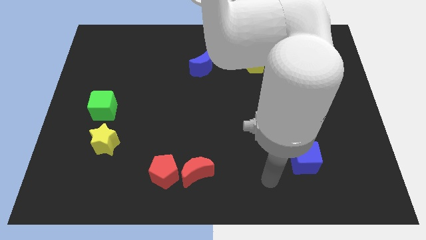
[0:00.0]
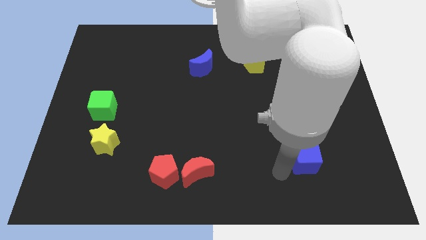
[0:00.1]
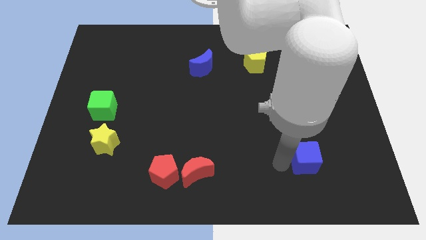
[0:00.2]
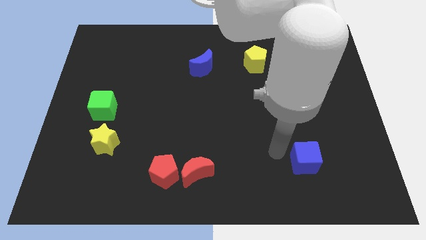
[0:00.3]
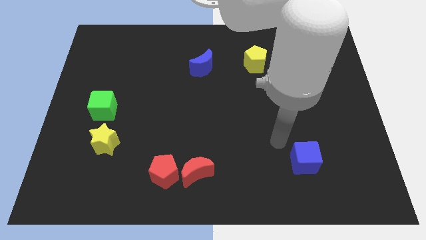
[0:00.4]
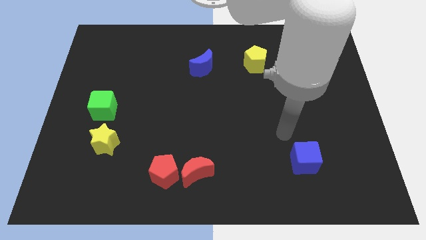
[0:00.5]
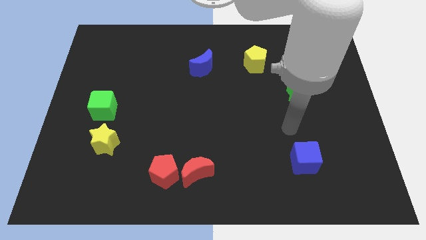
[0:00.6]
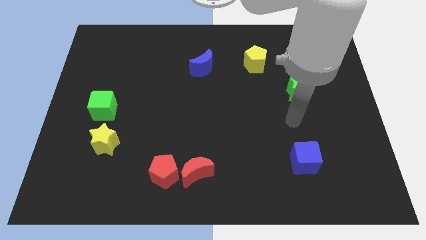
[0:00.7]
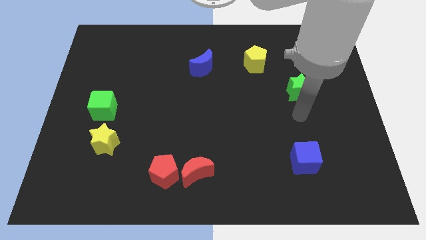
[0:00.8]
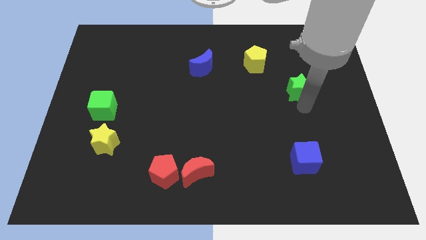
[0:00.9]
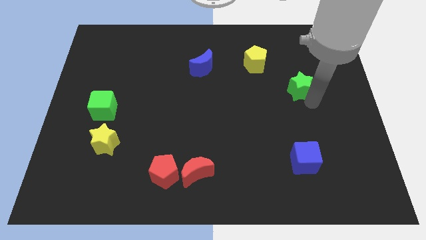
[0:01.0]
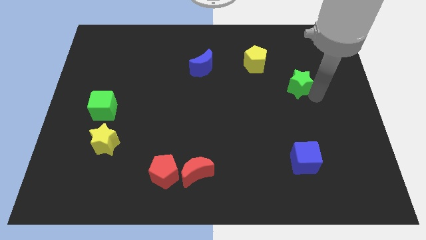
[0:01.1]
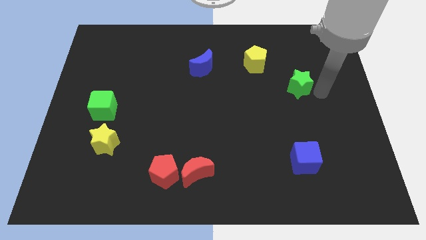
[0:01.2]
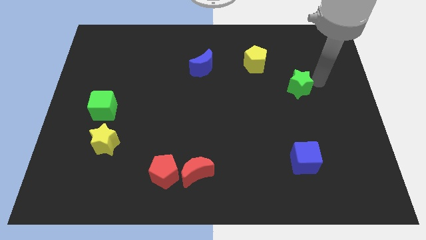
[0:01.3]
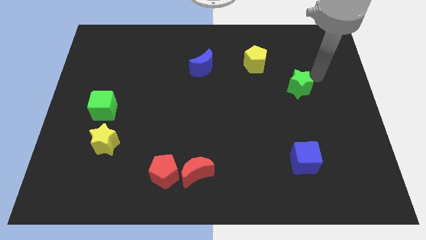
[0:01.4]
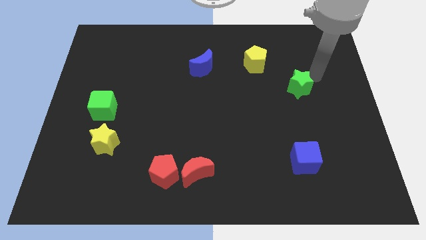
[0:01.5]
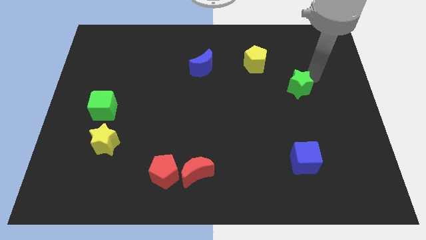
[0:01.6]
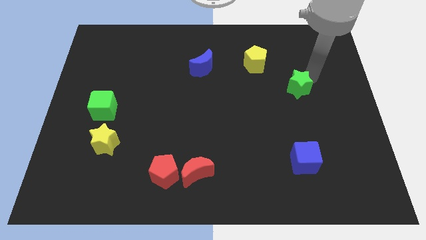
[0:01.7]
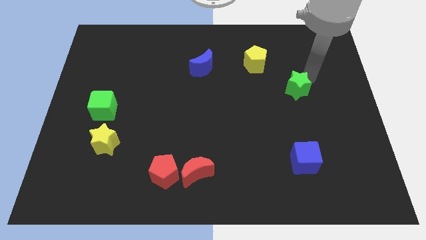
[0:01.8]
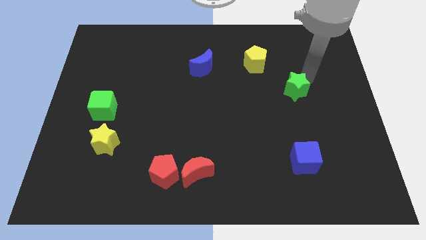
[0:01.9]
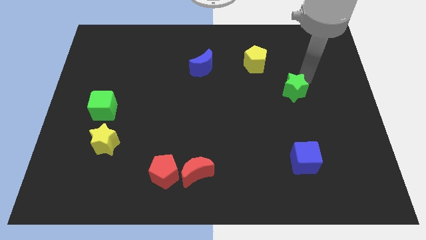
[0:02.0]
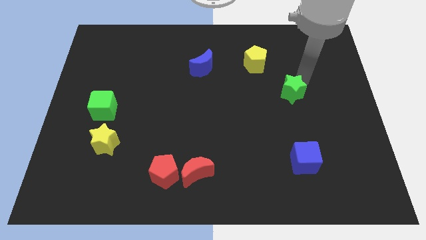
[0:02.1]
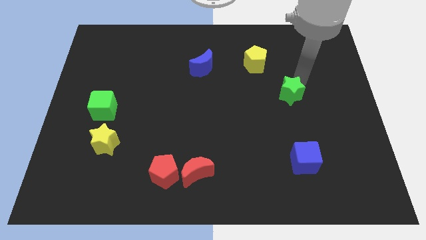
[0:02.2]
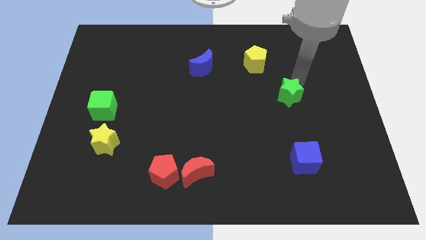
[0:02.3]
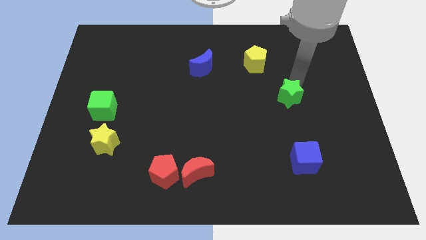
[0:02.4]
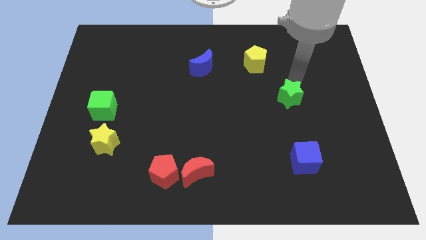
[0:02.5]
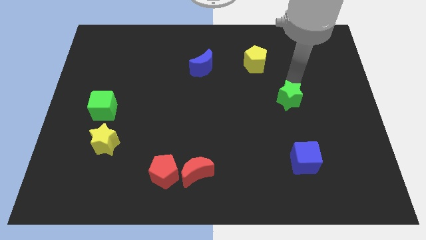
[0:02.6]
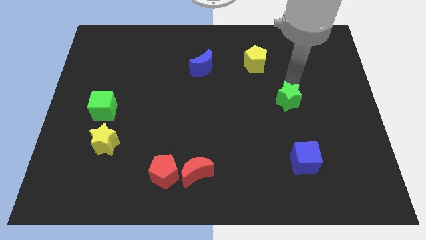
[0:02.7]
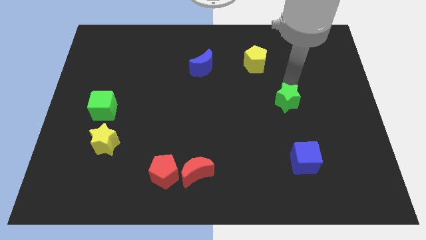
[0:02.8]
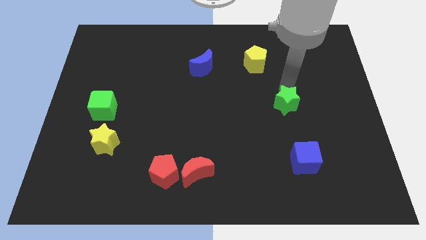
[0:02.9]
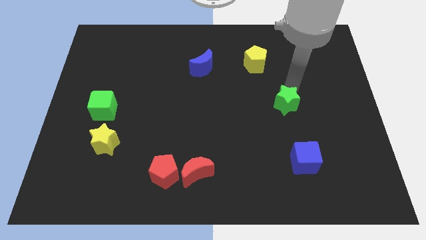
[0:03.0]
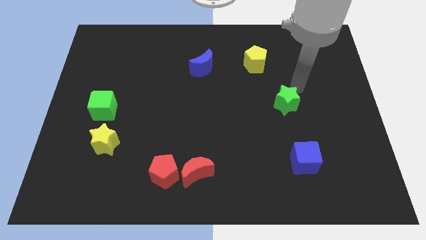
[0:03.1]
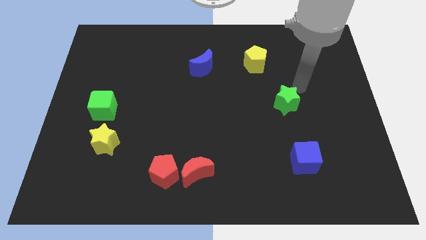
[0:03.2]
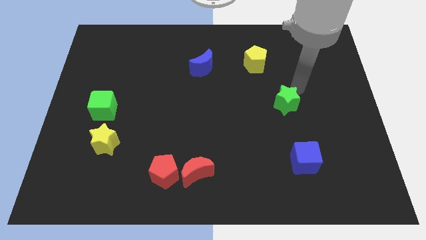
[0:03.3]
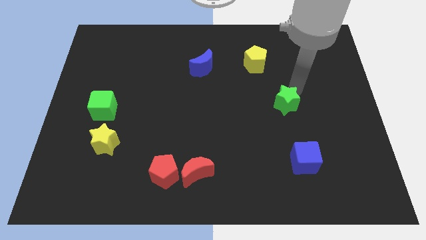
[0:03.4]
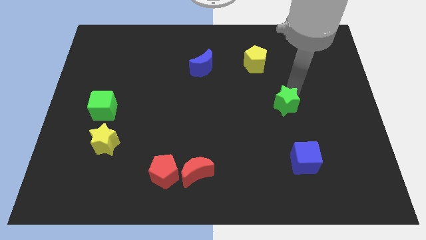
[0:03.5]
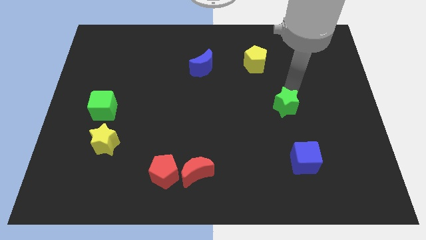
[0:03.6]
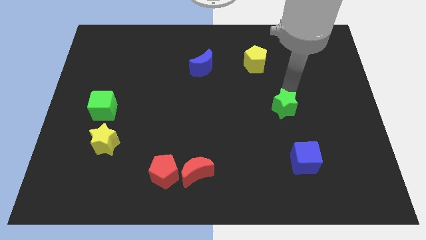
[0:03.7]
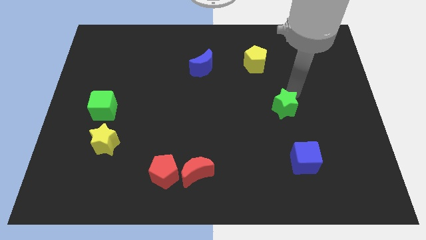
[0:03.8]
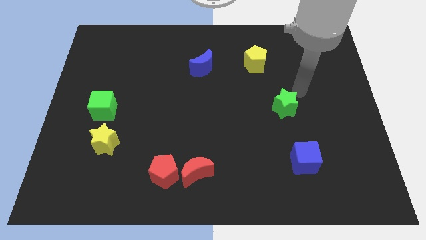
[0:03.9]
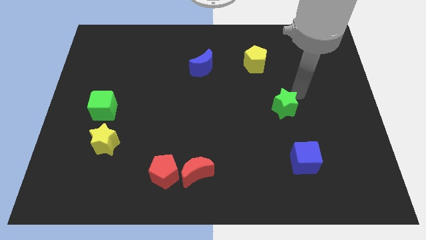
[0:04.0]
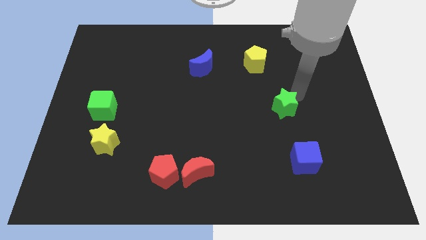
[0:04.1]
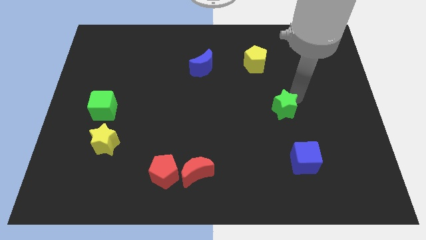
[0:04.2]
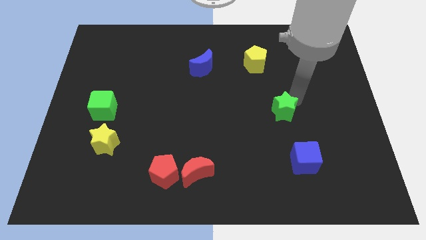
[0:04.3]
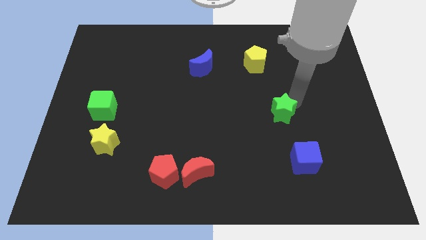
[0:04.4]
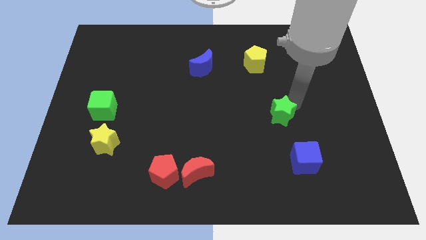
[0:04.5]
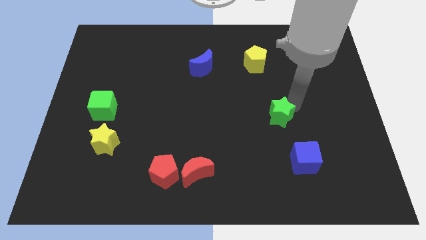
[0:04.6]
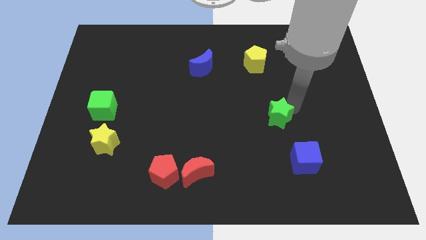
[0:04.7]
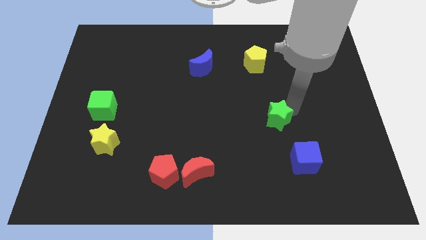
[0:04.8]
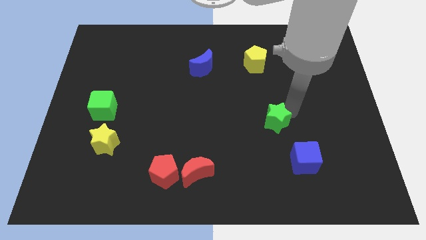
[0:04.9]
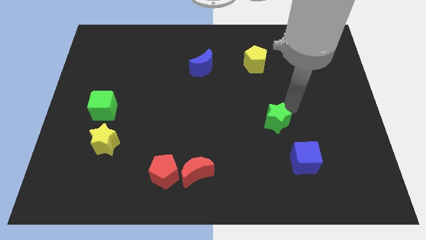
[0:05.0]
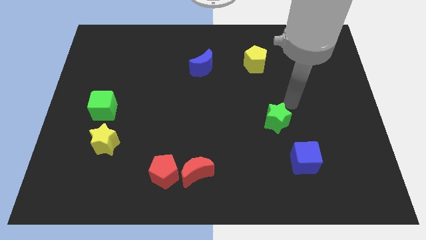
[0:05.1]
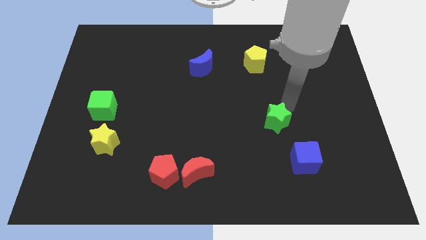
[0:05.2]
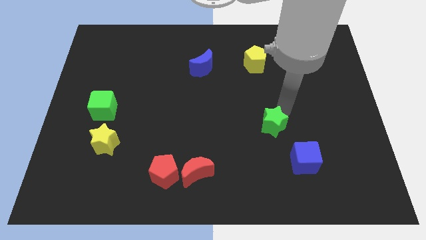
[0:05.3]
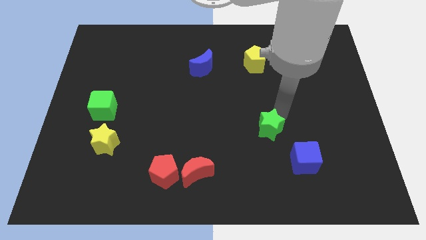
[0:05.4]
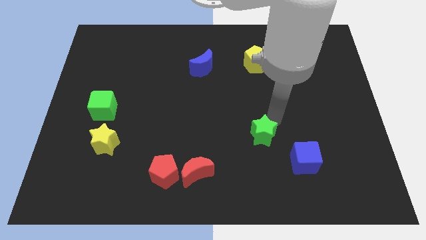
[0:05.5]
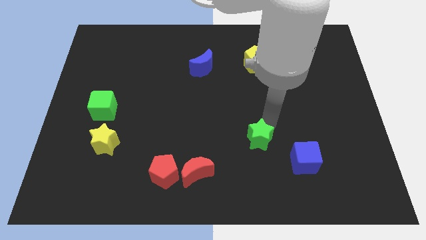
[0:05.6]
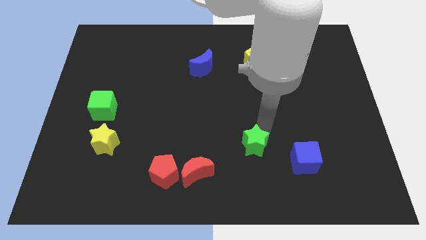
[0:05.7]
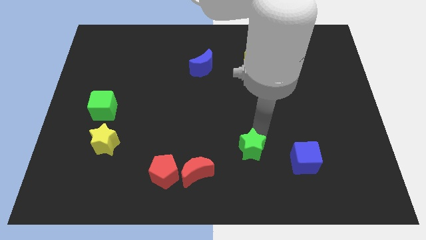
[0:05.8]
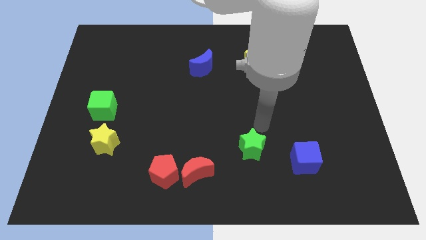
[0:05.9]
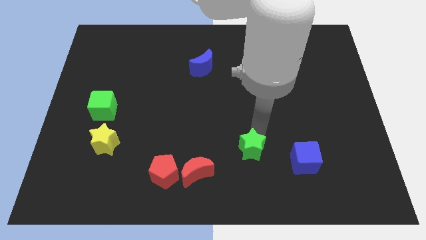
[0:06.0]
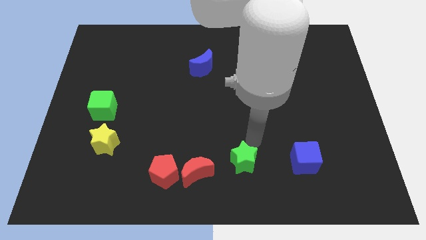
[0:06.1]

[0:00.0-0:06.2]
push the green star to the bottom side
